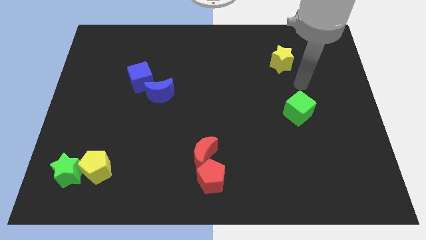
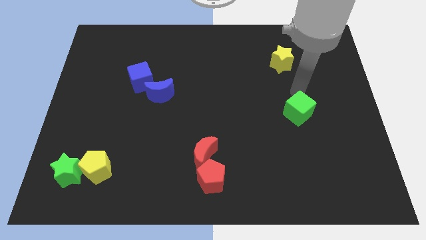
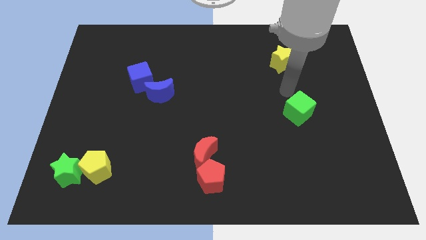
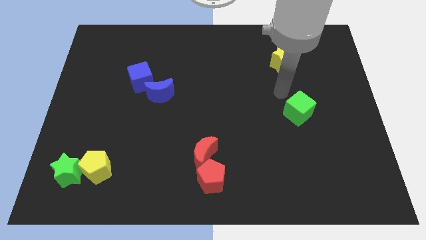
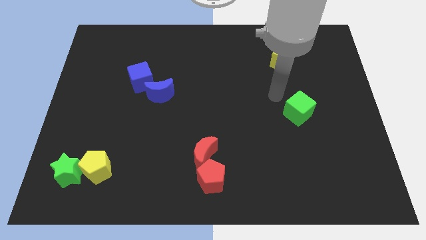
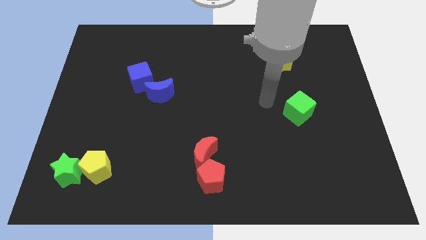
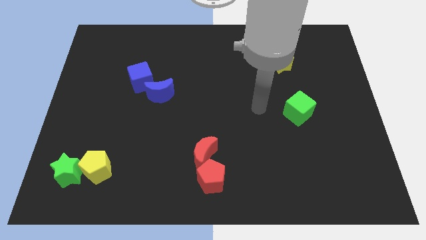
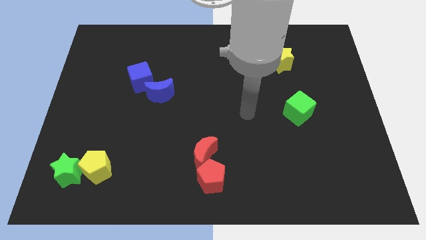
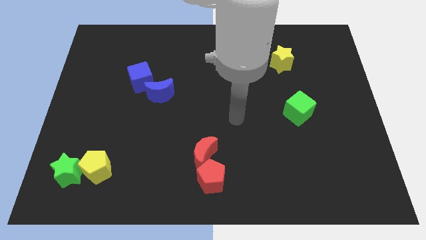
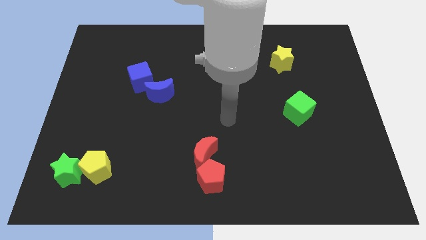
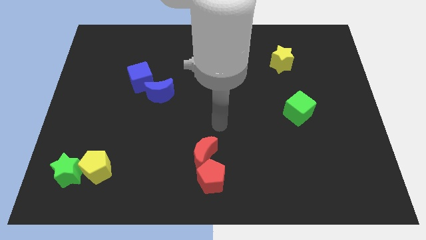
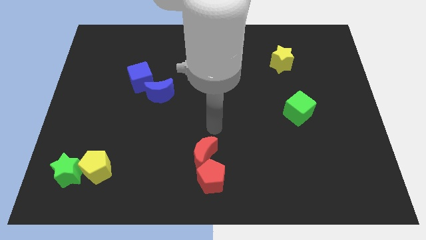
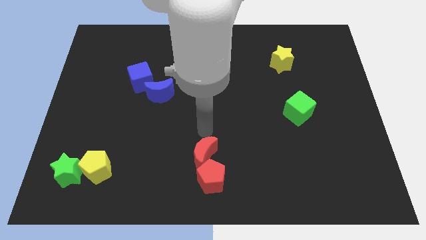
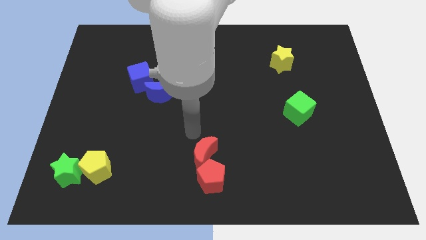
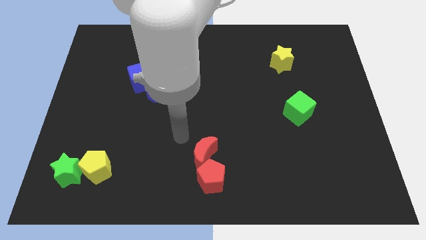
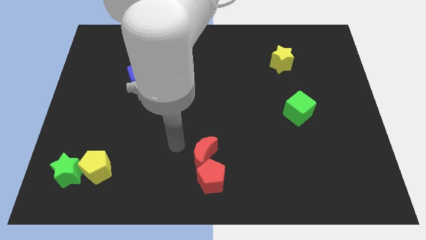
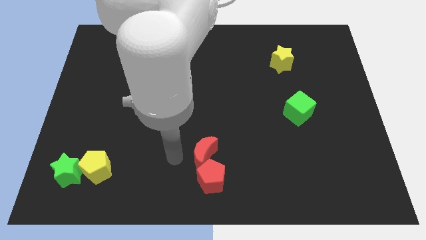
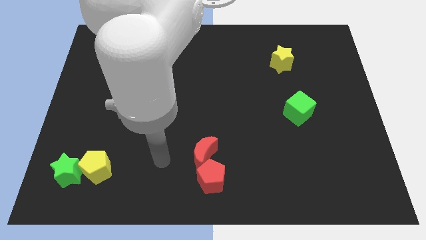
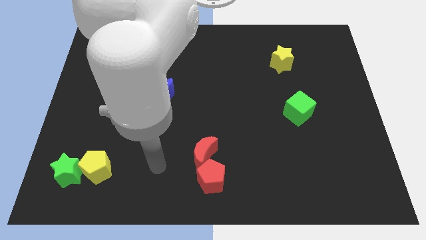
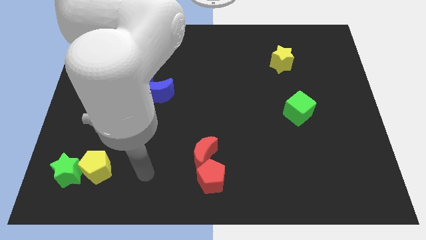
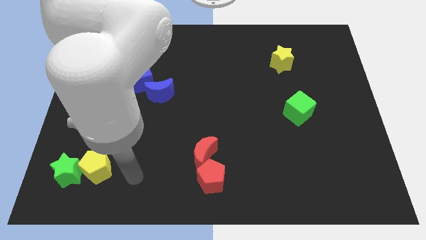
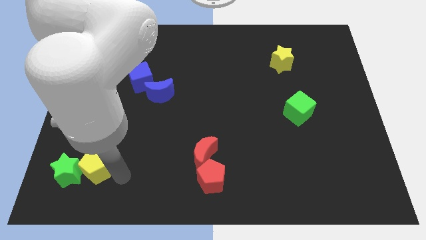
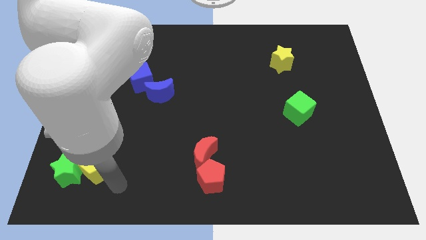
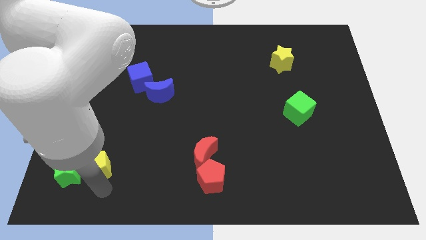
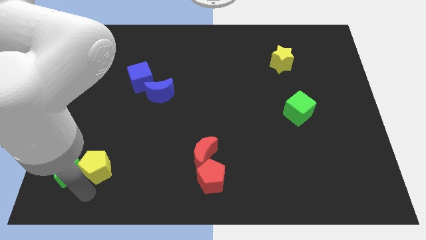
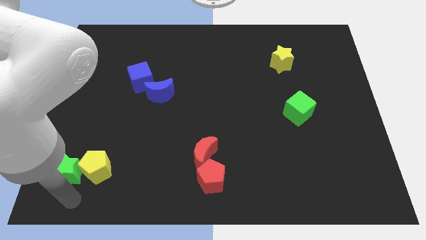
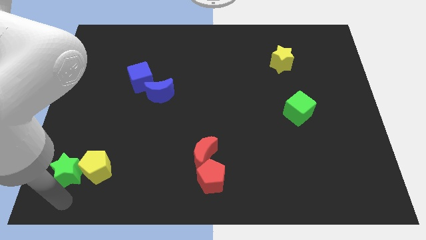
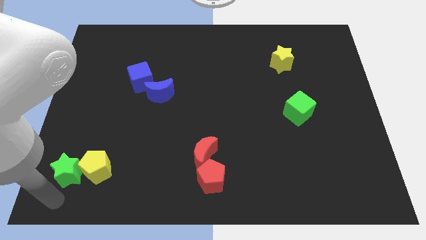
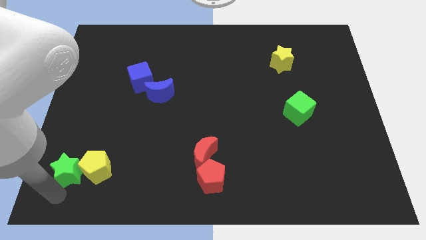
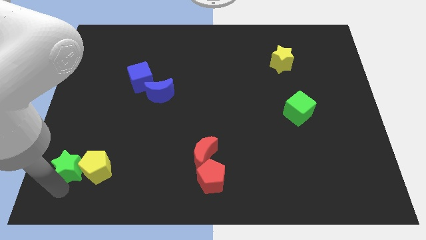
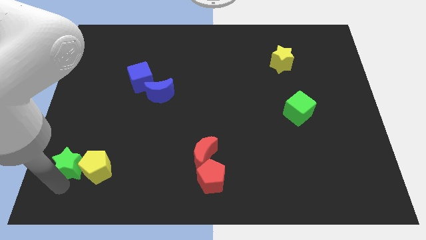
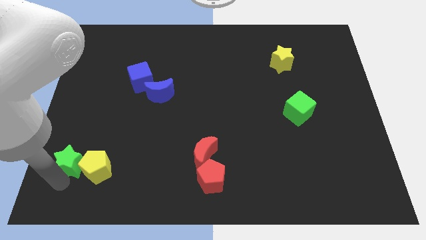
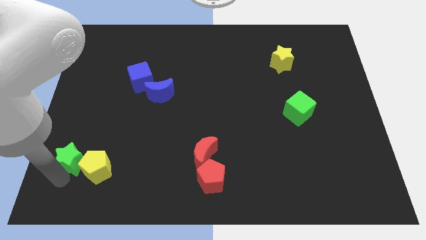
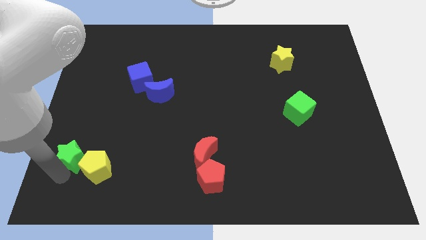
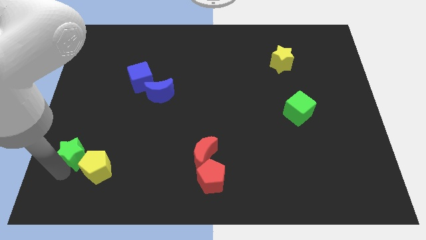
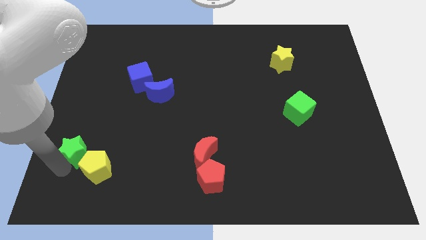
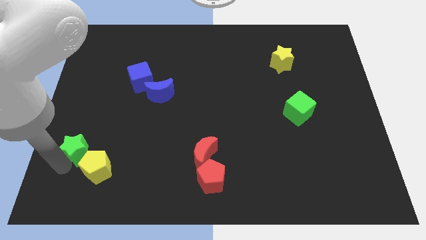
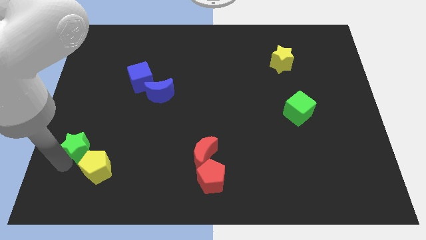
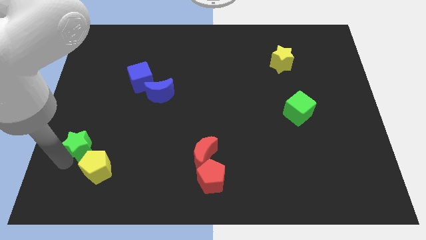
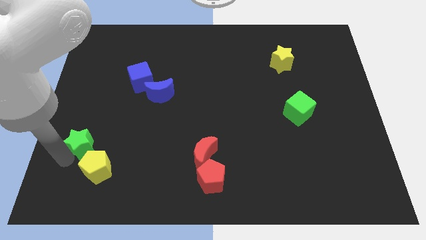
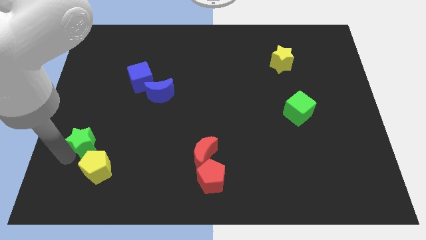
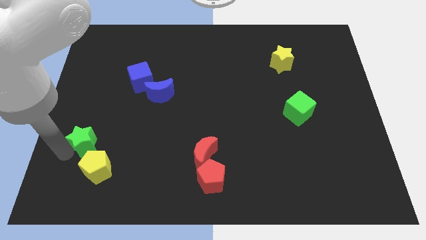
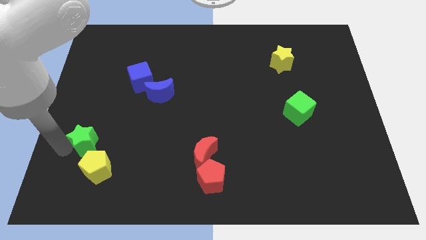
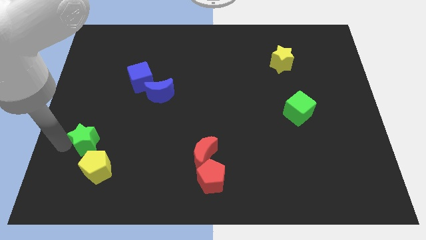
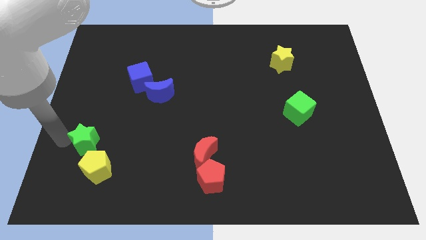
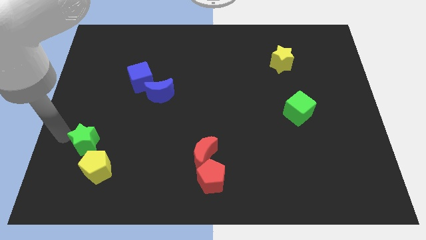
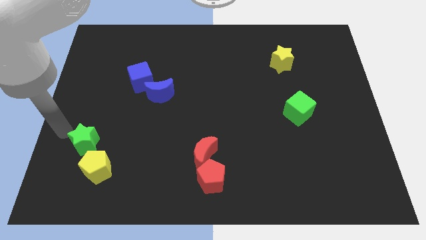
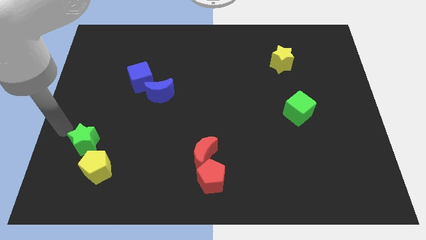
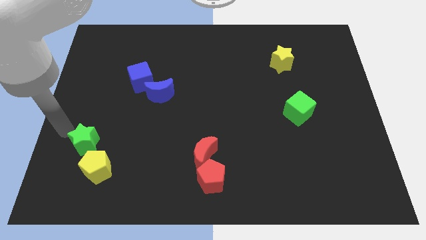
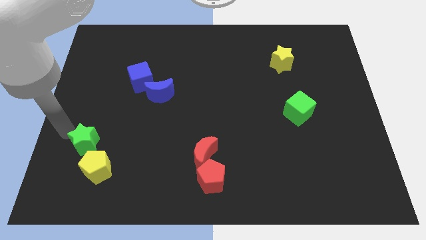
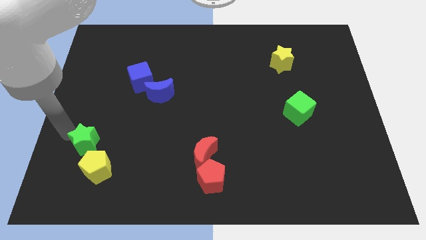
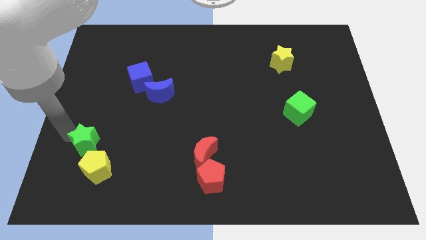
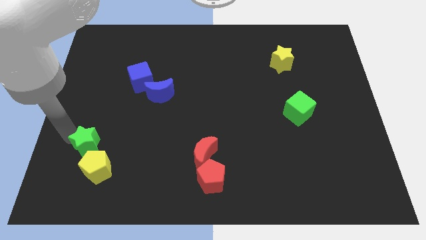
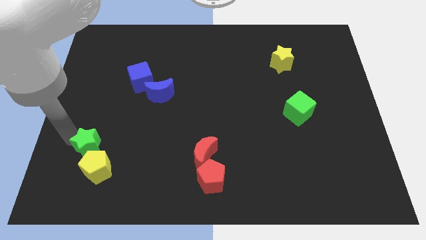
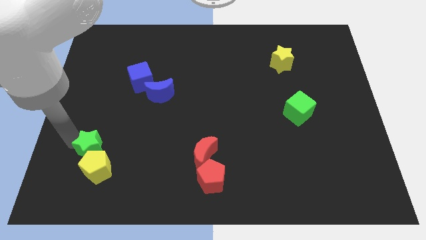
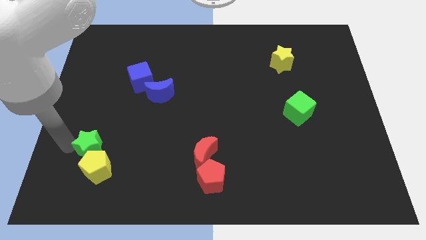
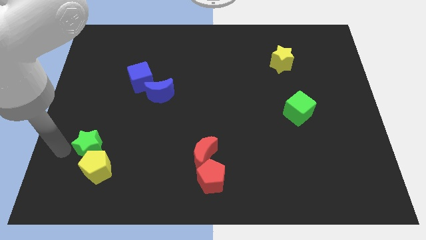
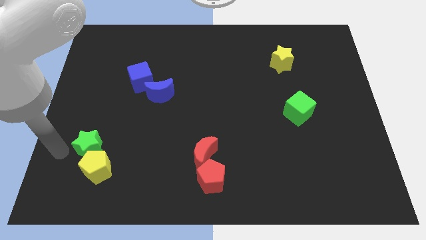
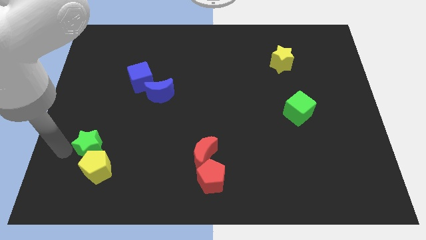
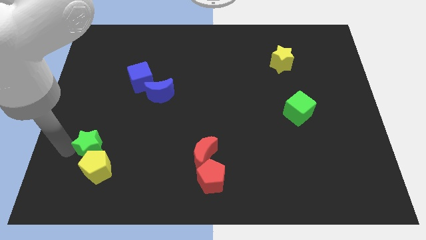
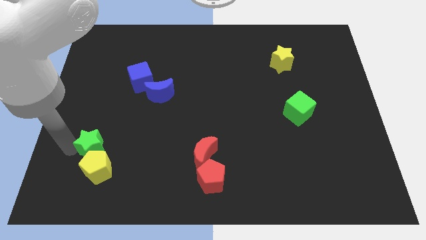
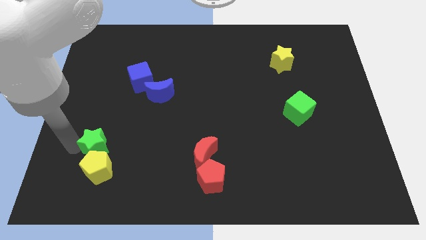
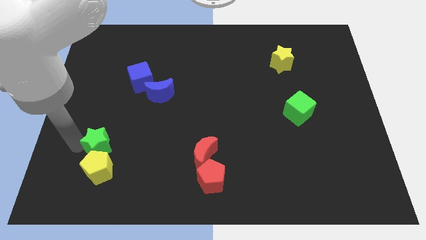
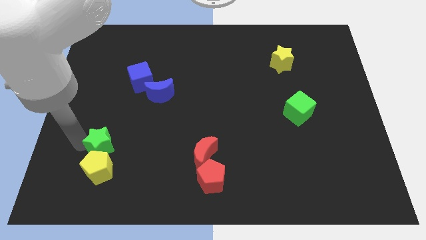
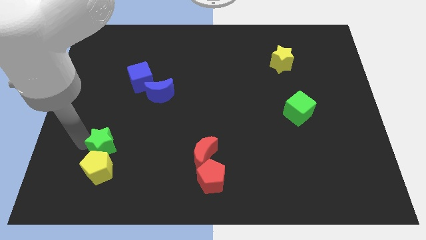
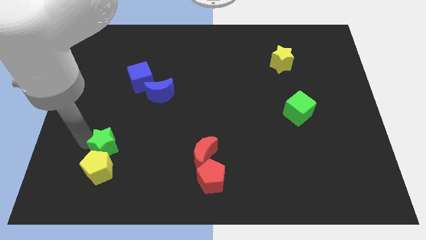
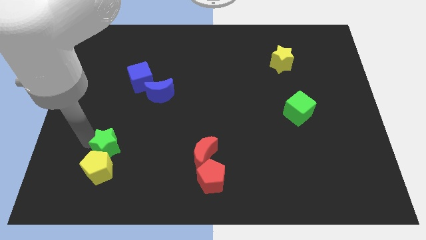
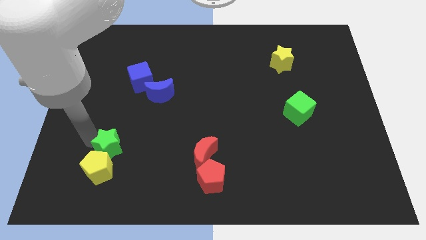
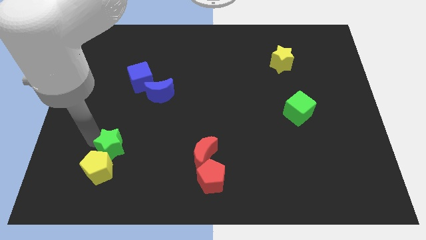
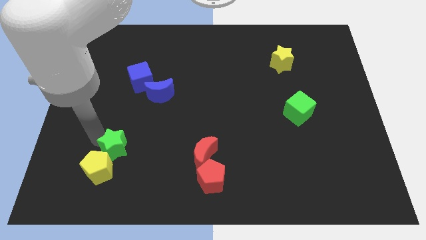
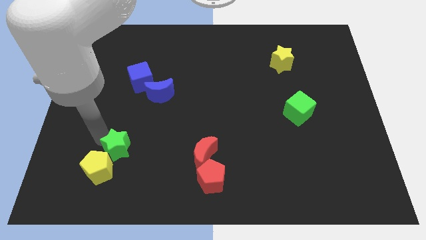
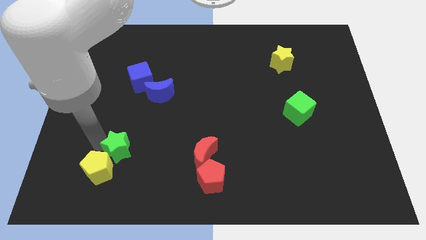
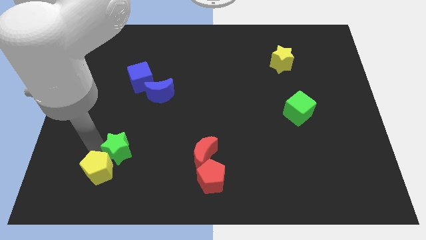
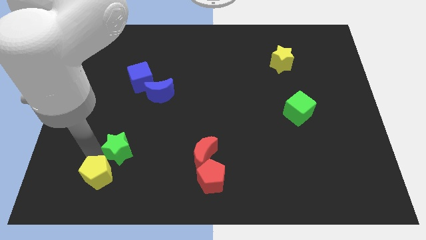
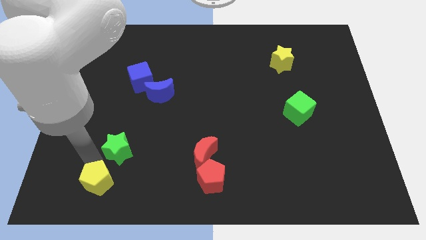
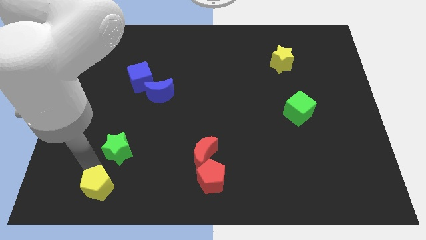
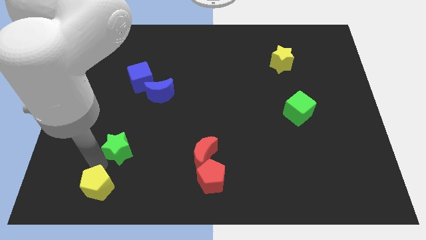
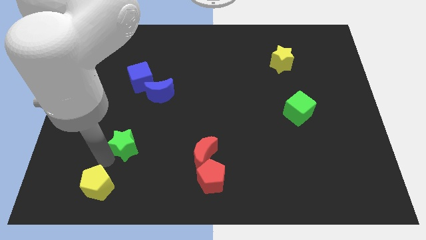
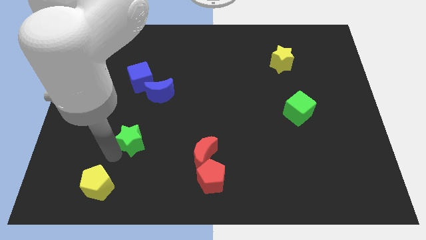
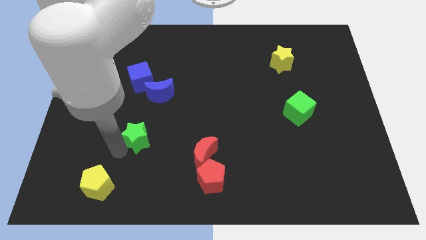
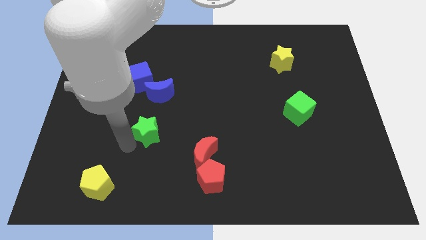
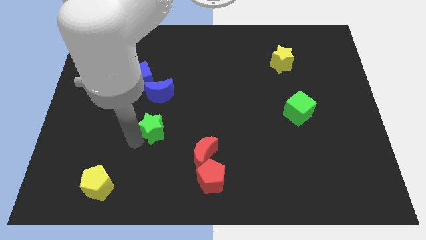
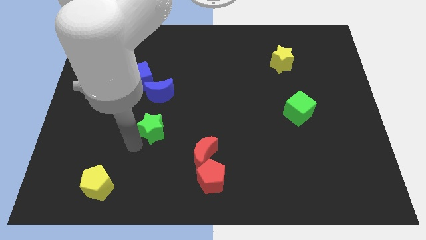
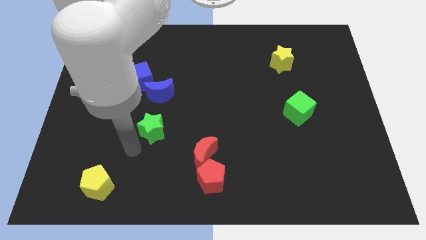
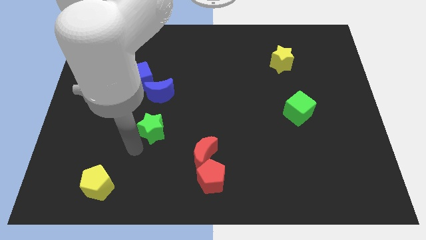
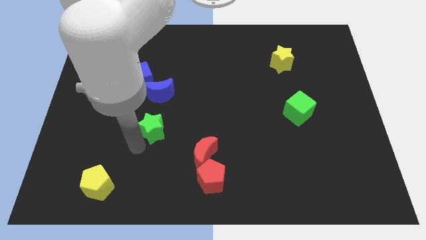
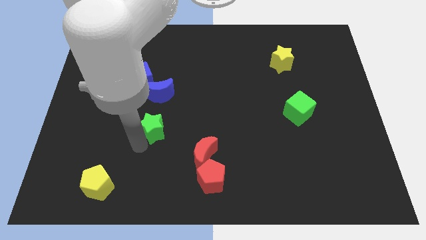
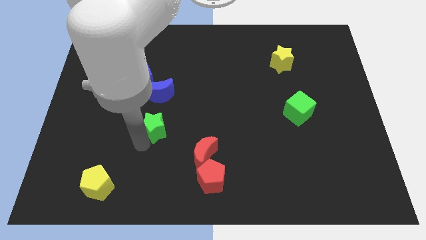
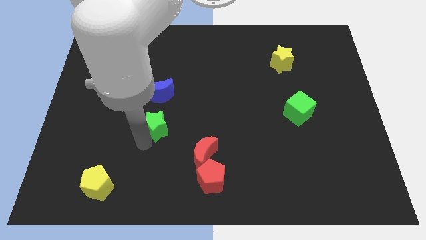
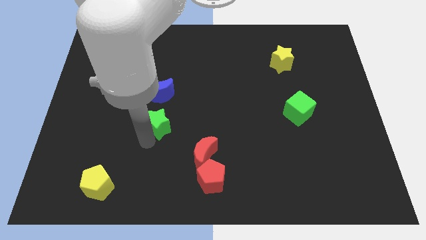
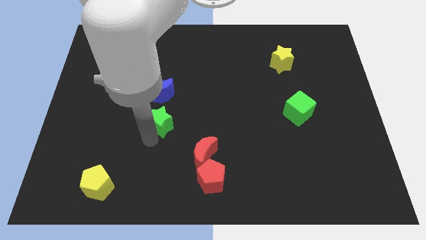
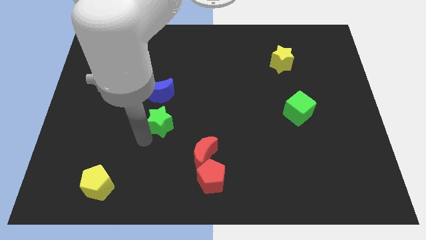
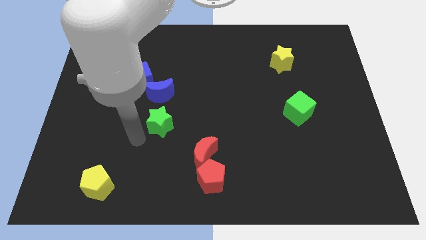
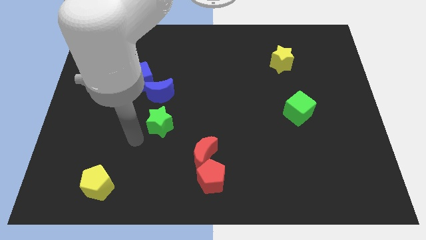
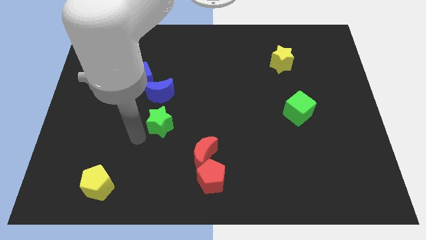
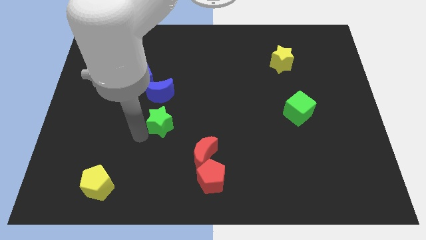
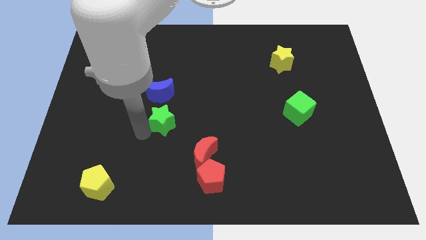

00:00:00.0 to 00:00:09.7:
slide the green star to the bottom right of the blue moon
